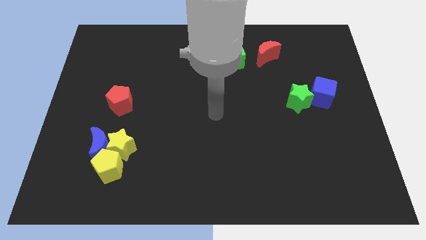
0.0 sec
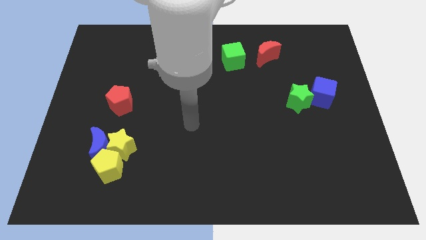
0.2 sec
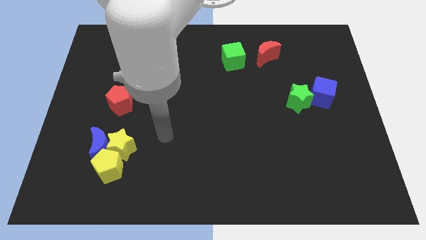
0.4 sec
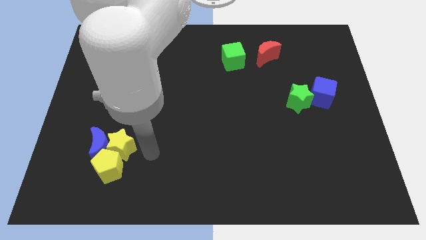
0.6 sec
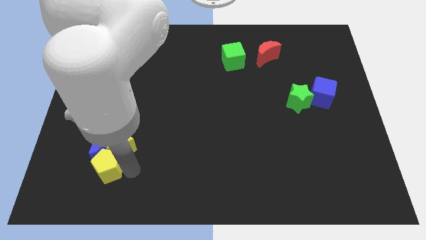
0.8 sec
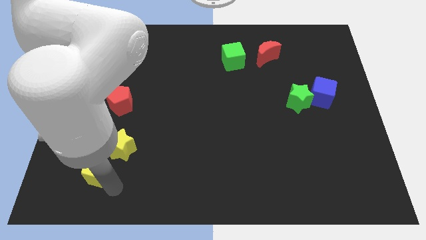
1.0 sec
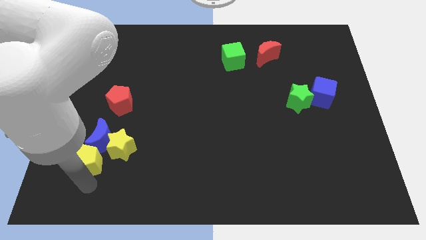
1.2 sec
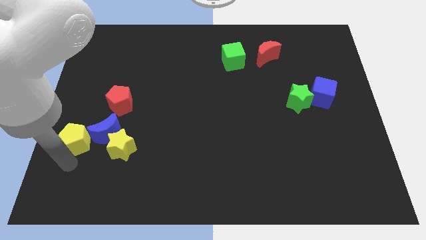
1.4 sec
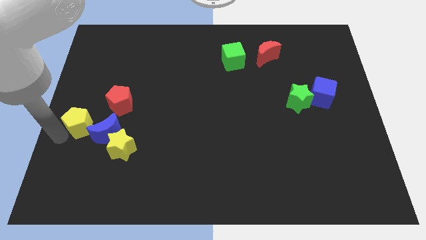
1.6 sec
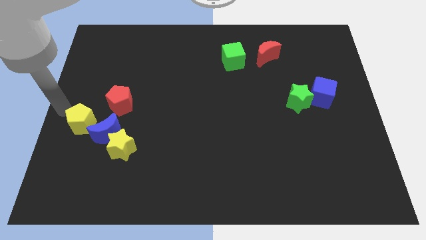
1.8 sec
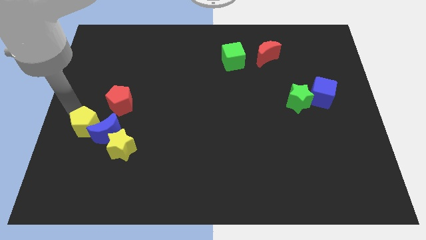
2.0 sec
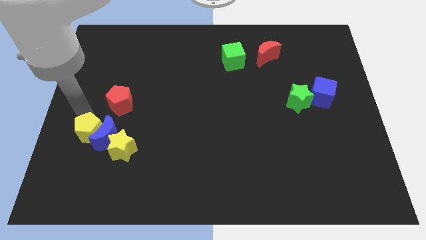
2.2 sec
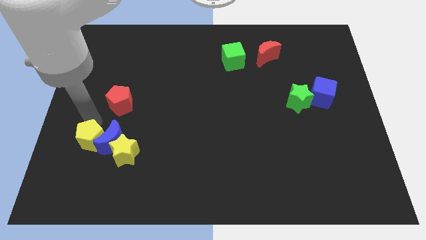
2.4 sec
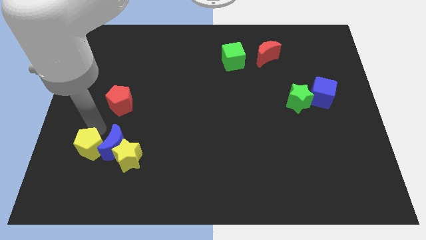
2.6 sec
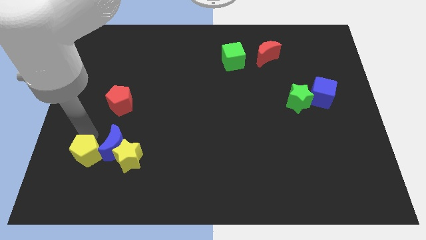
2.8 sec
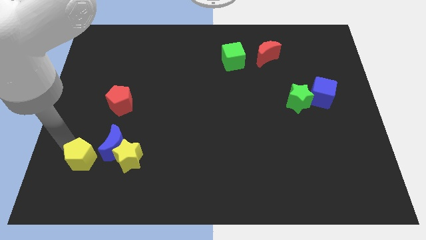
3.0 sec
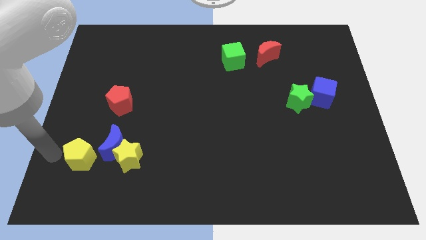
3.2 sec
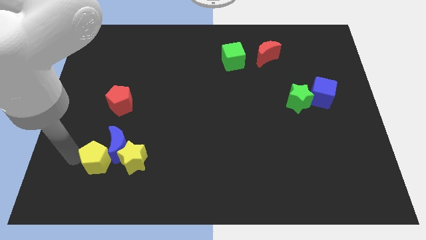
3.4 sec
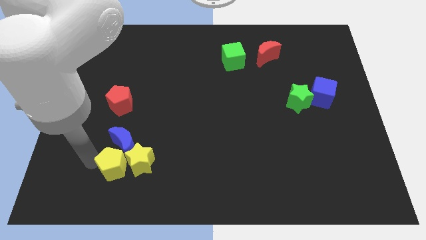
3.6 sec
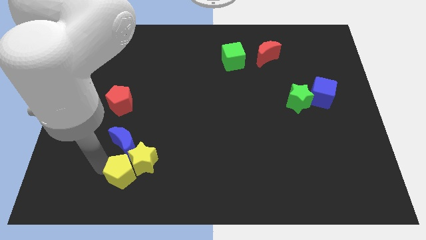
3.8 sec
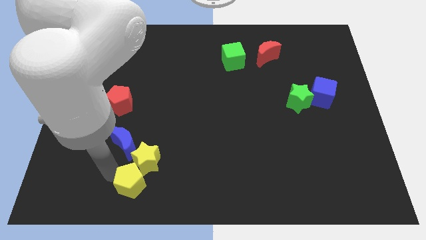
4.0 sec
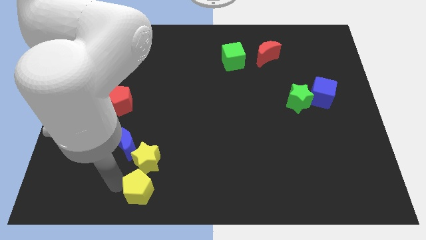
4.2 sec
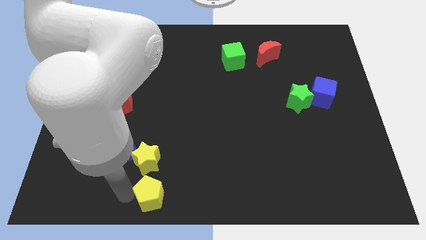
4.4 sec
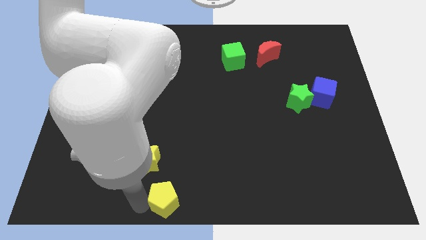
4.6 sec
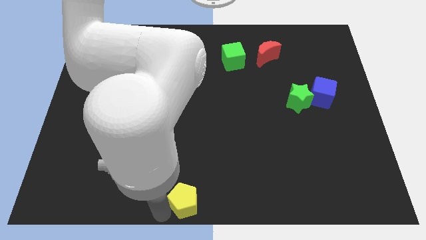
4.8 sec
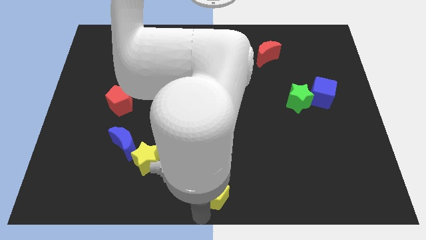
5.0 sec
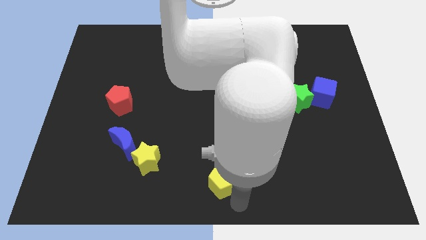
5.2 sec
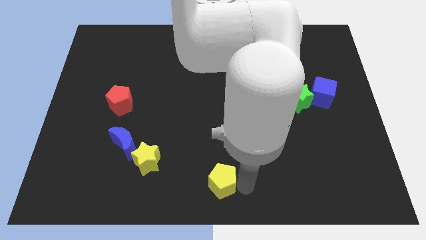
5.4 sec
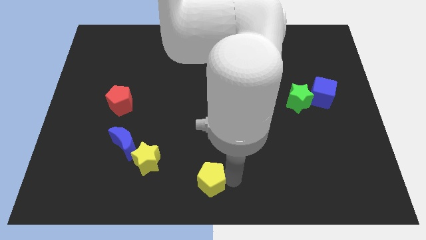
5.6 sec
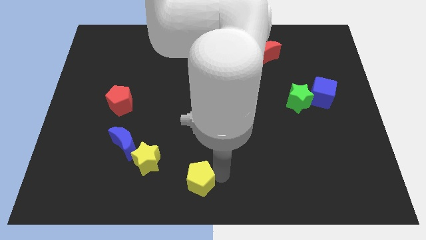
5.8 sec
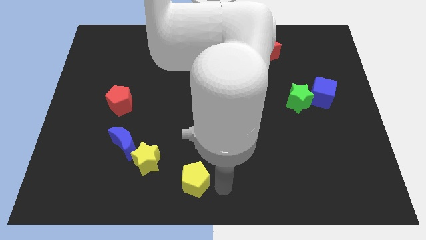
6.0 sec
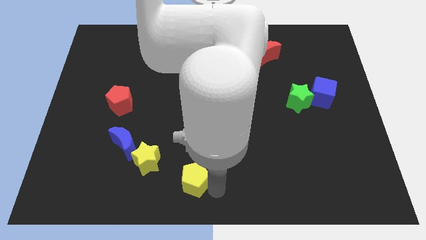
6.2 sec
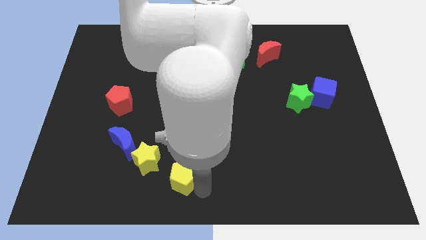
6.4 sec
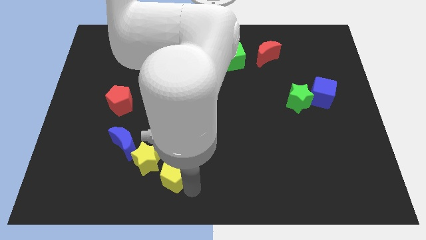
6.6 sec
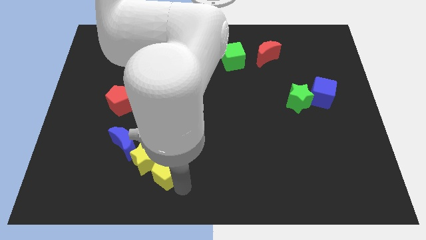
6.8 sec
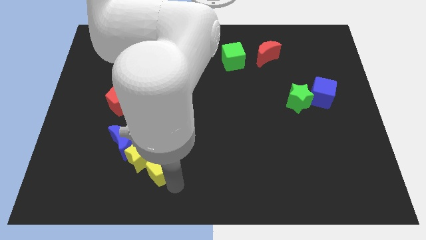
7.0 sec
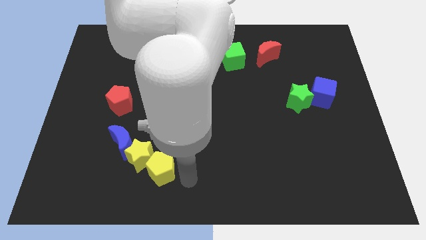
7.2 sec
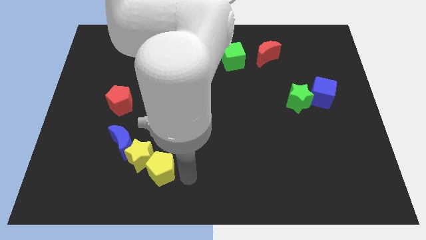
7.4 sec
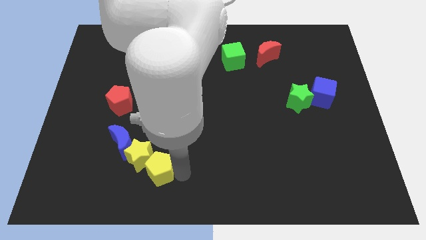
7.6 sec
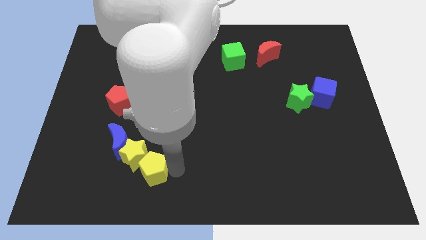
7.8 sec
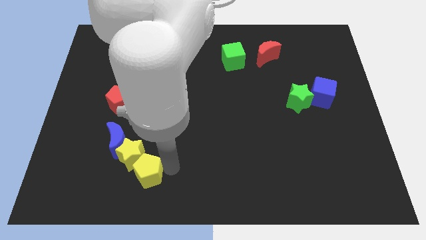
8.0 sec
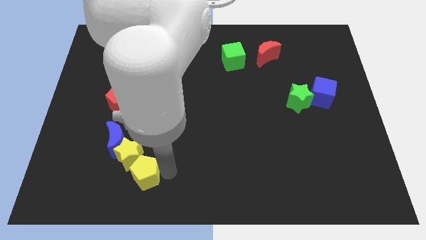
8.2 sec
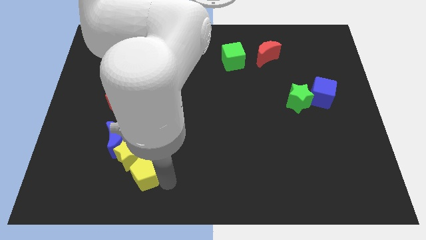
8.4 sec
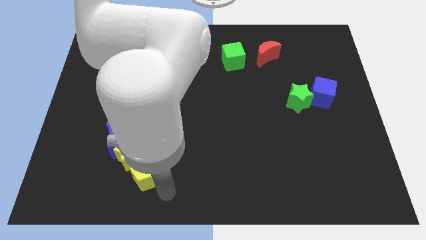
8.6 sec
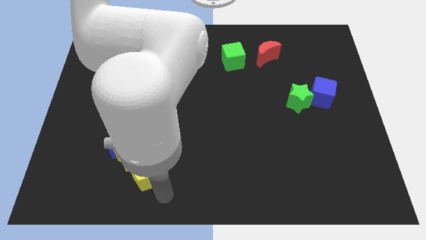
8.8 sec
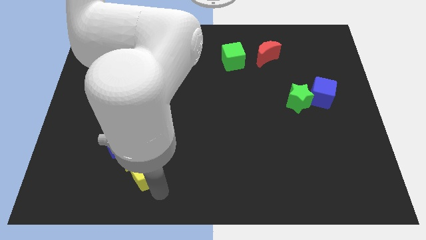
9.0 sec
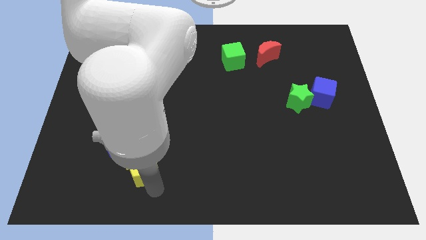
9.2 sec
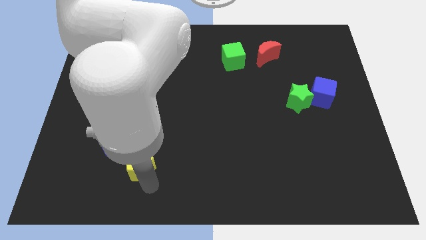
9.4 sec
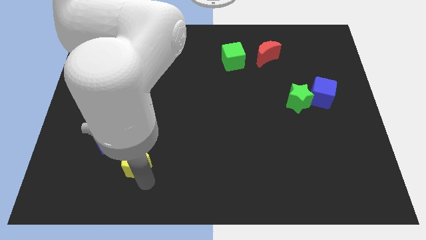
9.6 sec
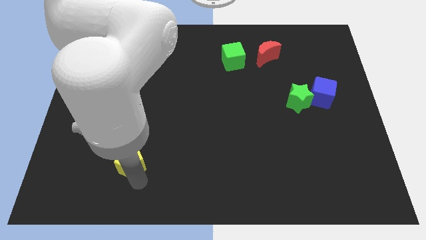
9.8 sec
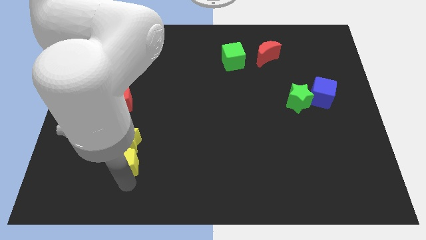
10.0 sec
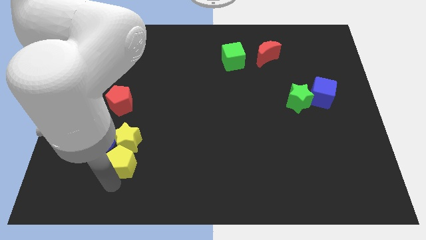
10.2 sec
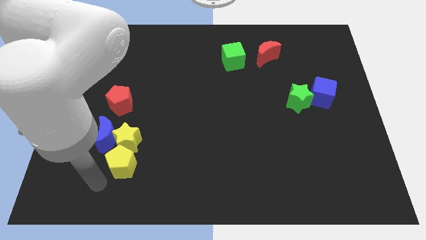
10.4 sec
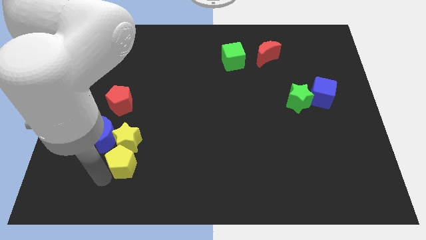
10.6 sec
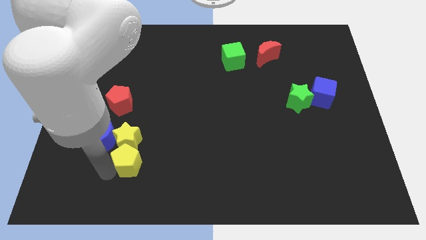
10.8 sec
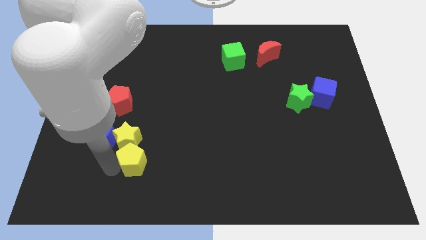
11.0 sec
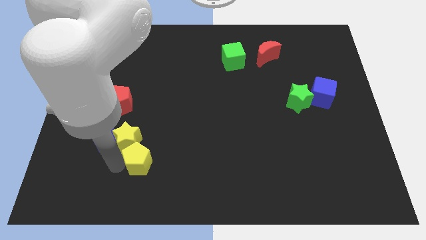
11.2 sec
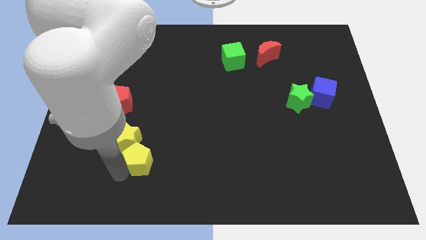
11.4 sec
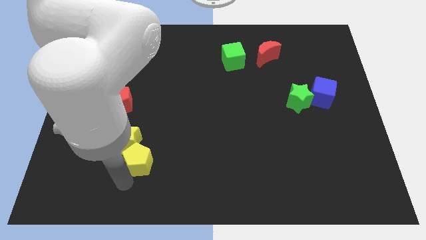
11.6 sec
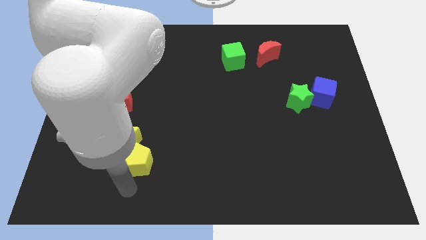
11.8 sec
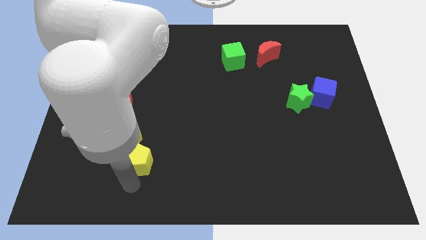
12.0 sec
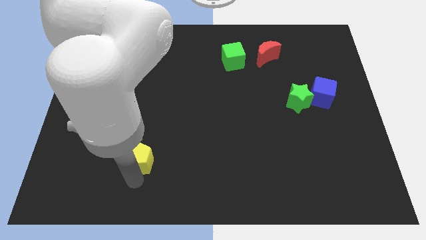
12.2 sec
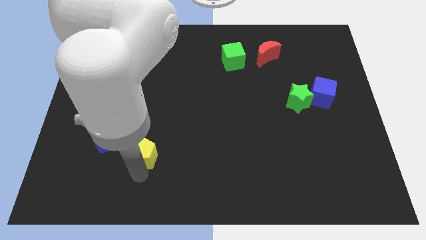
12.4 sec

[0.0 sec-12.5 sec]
slightly slide the yellow pentagon up and right diagonally

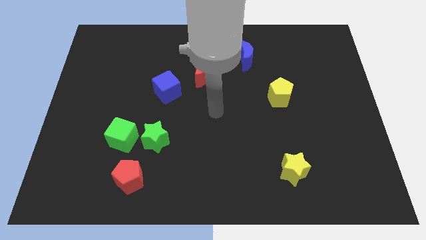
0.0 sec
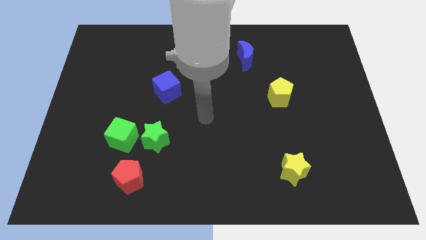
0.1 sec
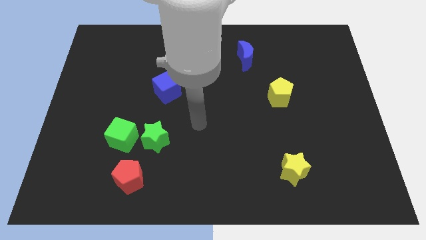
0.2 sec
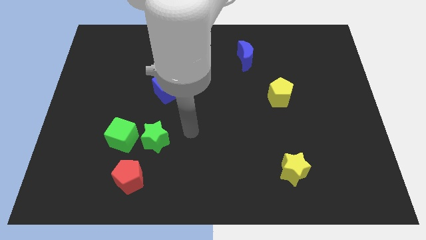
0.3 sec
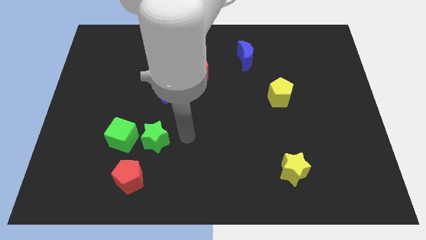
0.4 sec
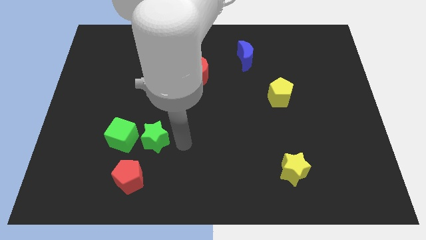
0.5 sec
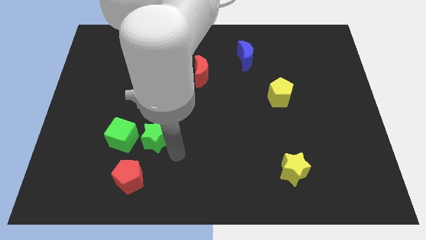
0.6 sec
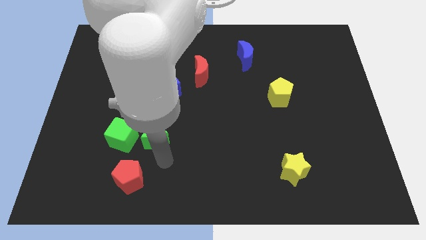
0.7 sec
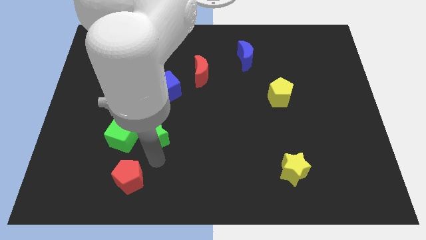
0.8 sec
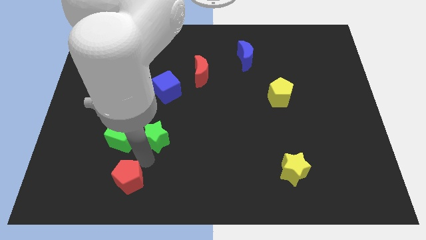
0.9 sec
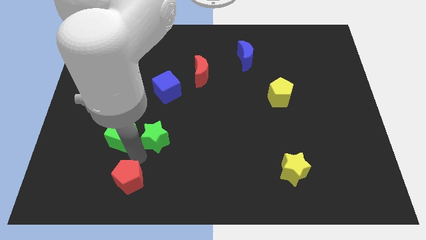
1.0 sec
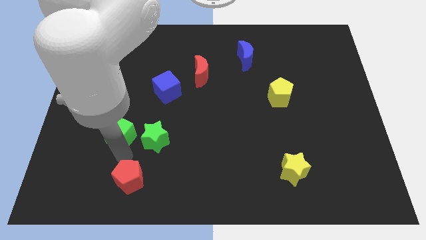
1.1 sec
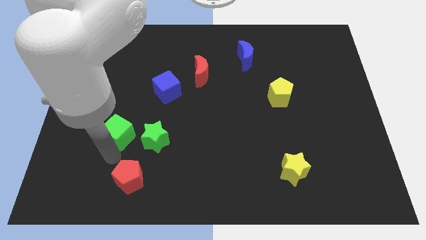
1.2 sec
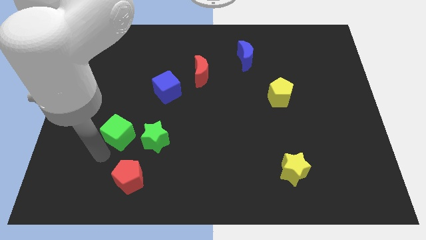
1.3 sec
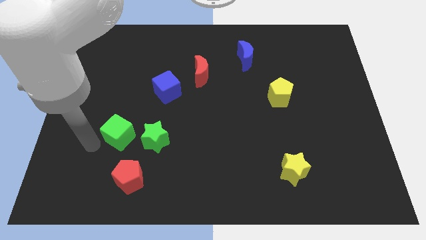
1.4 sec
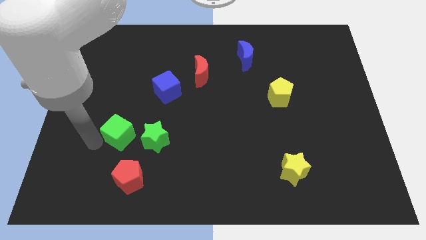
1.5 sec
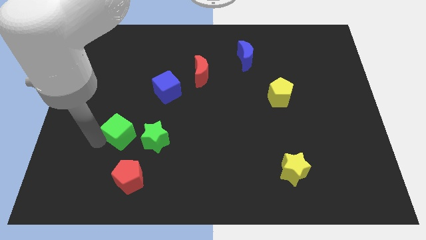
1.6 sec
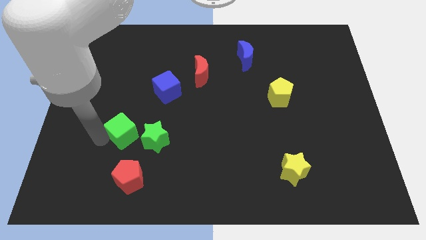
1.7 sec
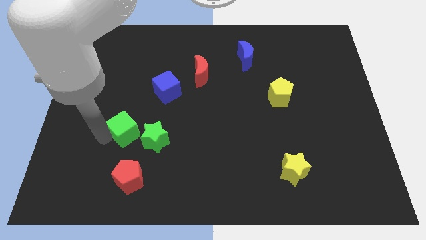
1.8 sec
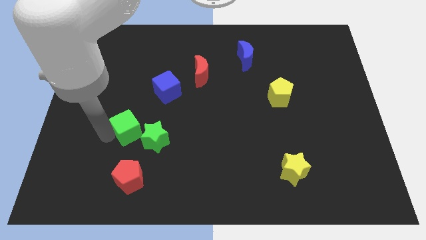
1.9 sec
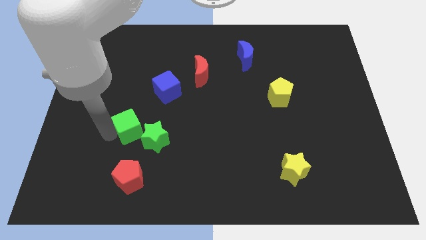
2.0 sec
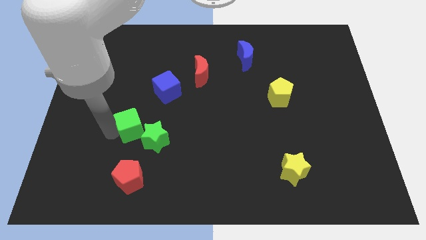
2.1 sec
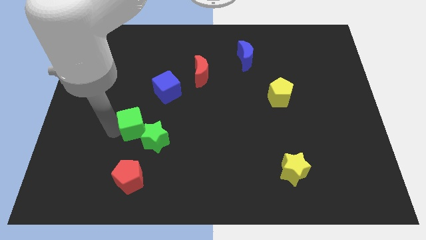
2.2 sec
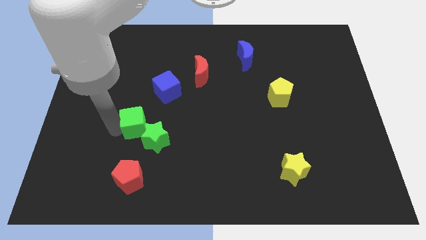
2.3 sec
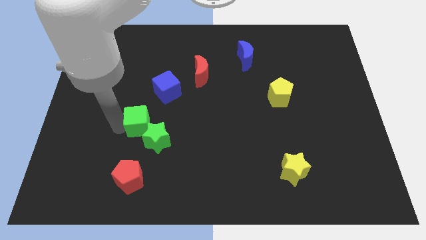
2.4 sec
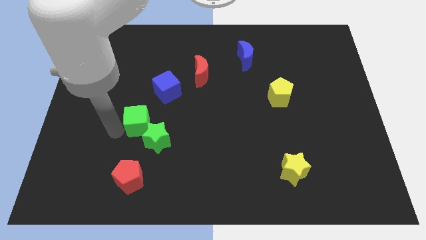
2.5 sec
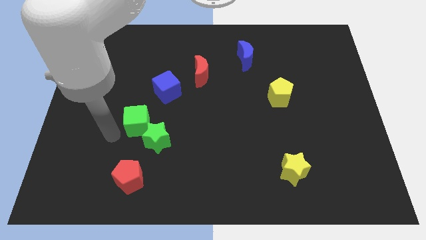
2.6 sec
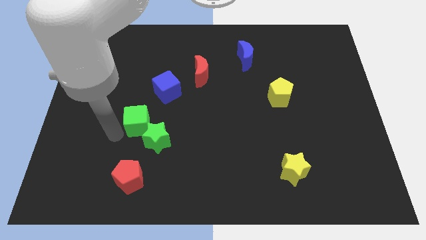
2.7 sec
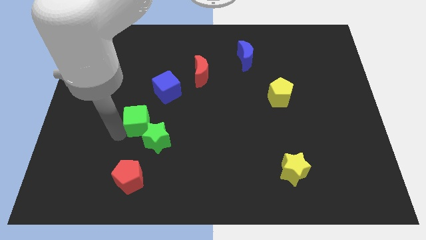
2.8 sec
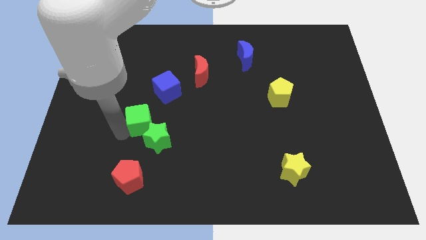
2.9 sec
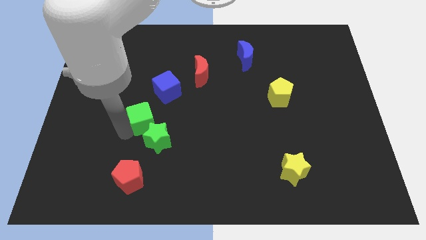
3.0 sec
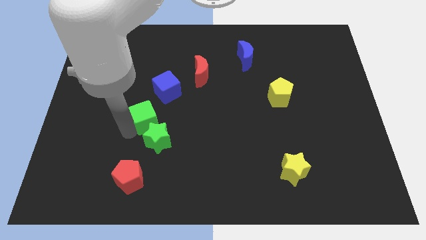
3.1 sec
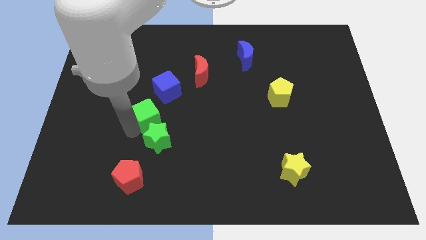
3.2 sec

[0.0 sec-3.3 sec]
slide the green cube a little bit up and then right
